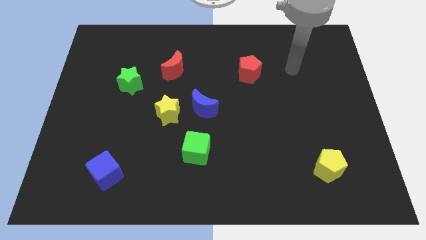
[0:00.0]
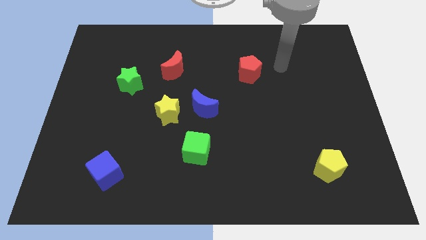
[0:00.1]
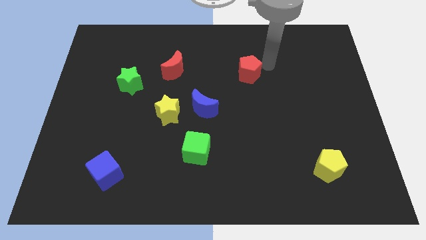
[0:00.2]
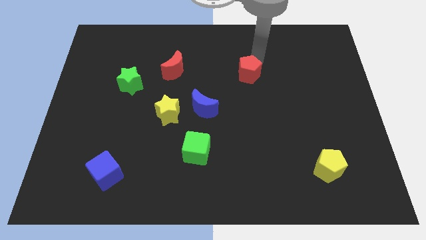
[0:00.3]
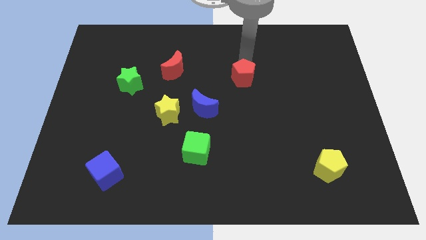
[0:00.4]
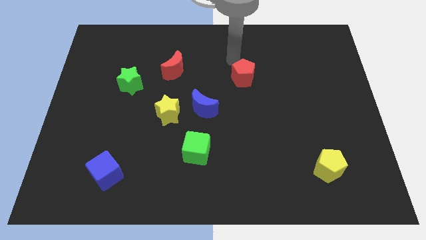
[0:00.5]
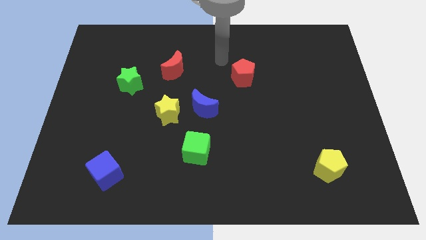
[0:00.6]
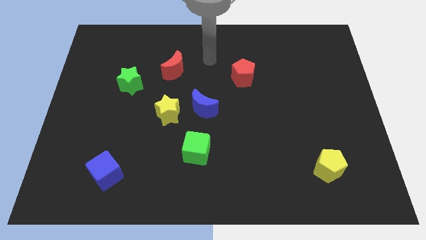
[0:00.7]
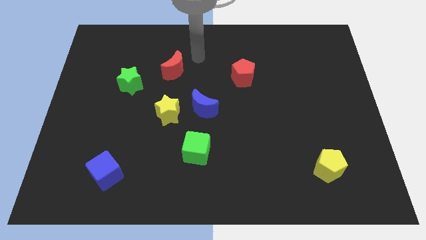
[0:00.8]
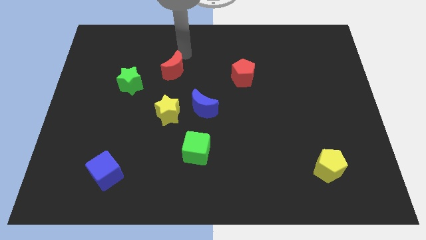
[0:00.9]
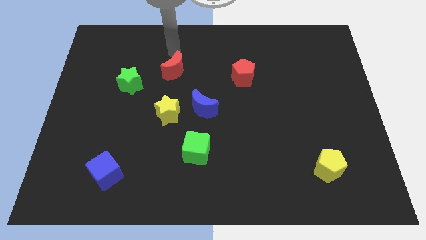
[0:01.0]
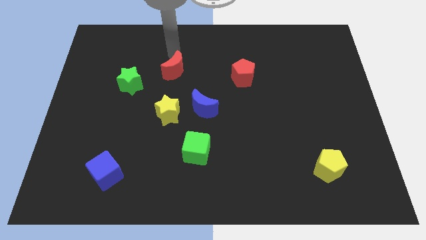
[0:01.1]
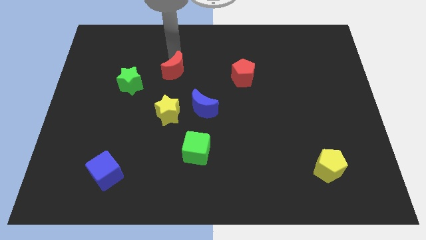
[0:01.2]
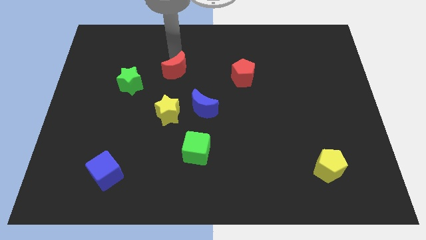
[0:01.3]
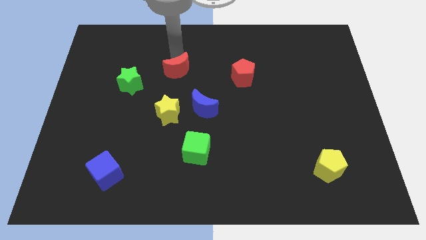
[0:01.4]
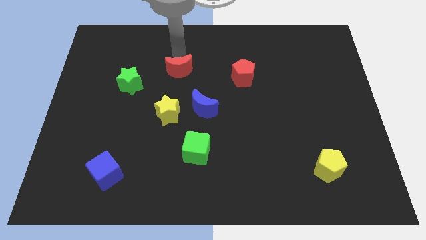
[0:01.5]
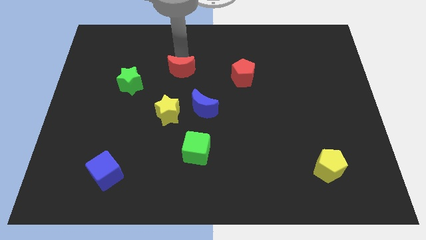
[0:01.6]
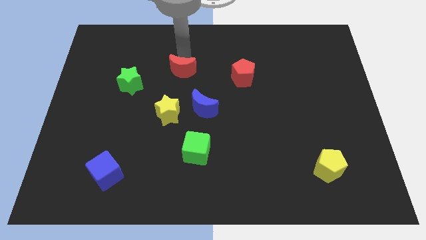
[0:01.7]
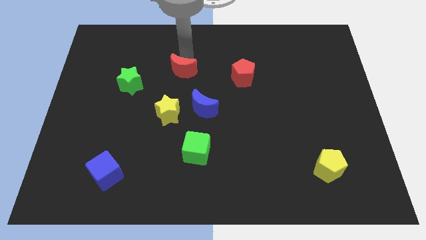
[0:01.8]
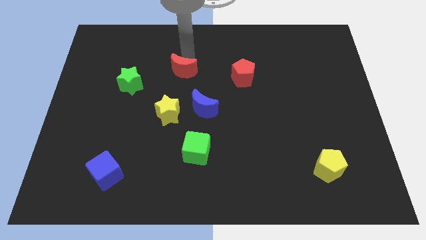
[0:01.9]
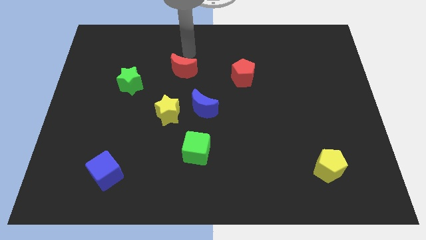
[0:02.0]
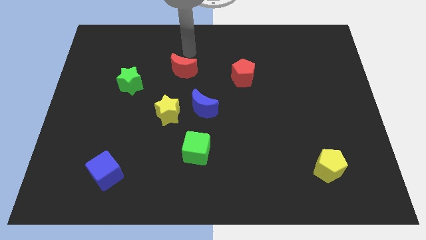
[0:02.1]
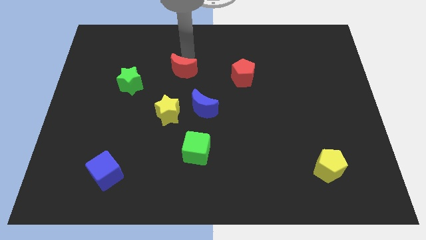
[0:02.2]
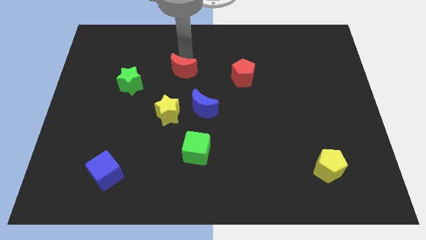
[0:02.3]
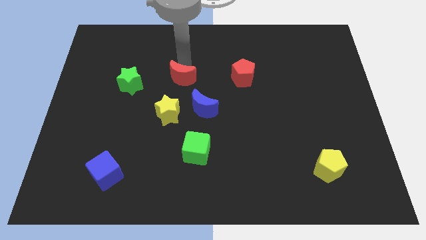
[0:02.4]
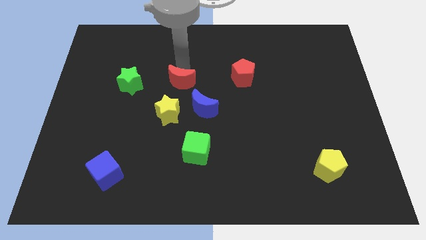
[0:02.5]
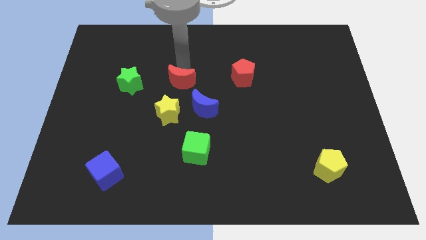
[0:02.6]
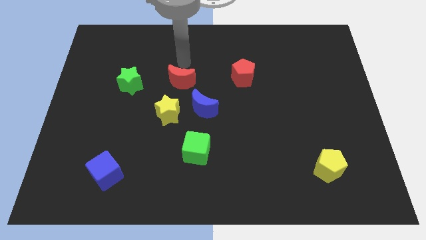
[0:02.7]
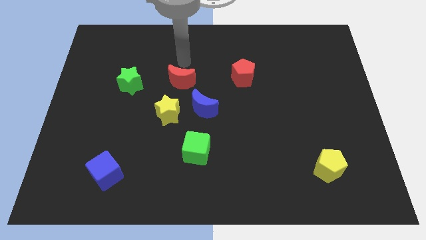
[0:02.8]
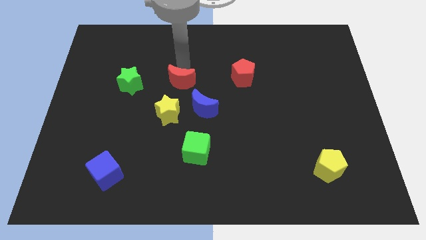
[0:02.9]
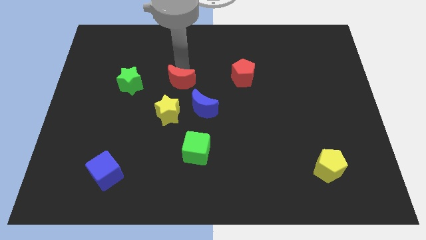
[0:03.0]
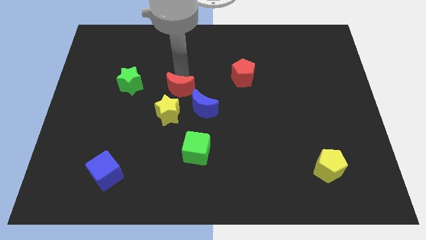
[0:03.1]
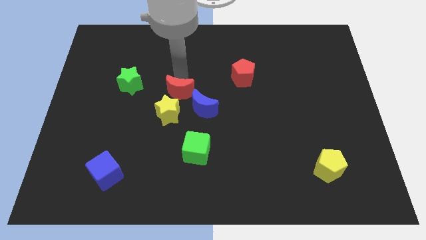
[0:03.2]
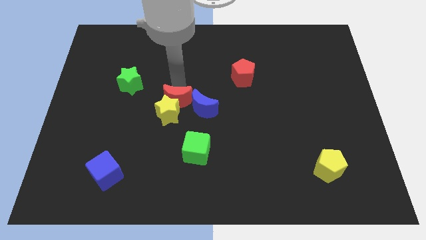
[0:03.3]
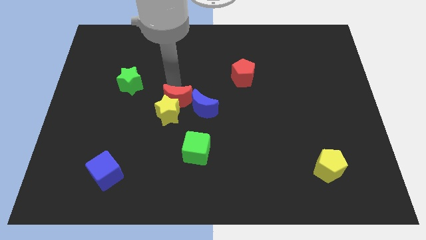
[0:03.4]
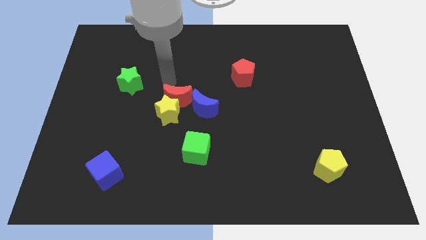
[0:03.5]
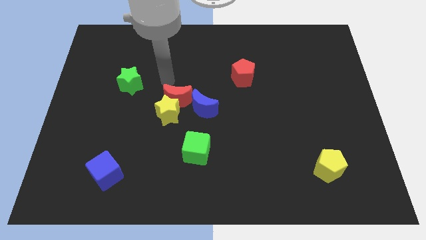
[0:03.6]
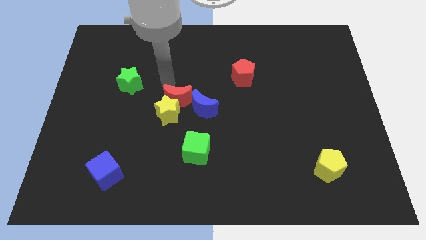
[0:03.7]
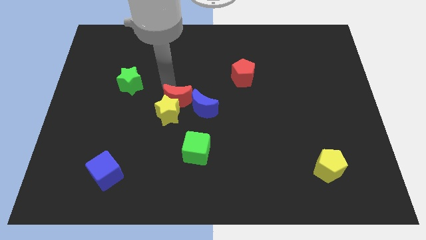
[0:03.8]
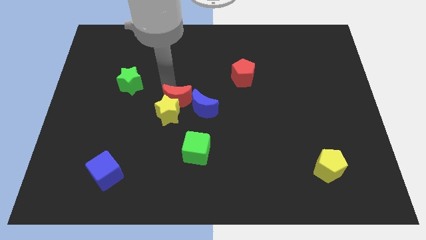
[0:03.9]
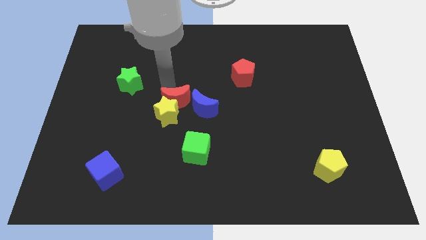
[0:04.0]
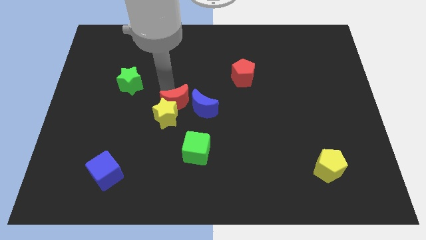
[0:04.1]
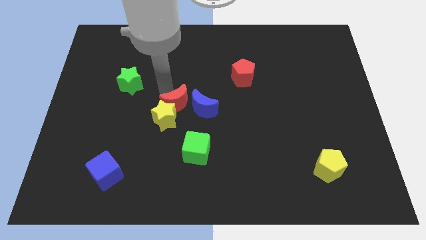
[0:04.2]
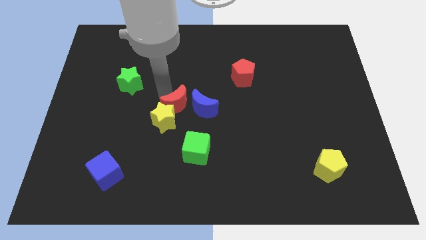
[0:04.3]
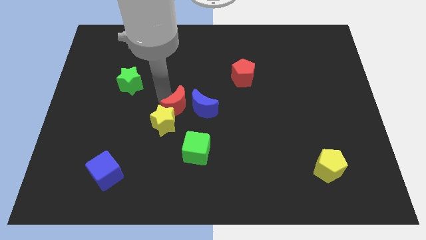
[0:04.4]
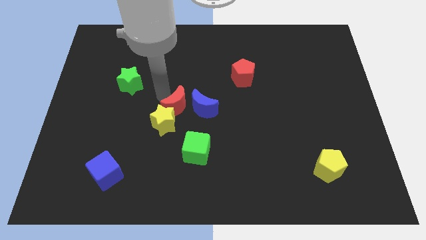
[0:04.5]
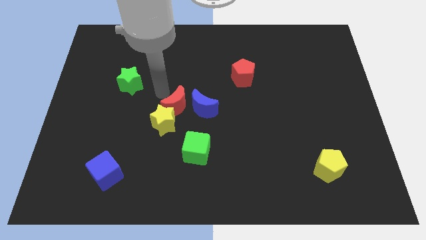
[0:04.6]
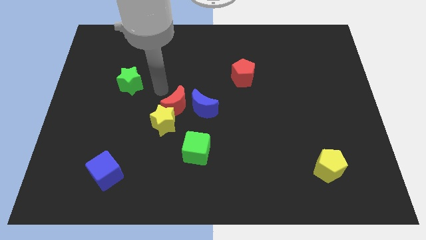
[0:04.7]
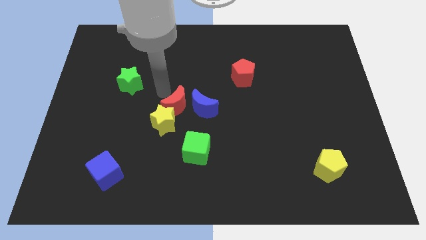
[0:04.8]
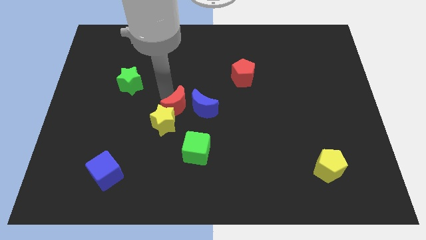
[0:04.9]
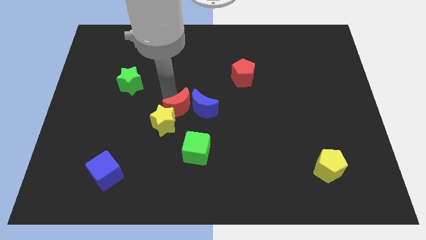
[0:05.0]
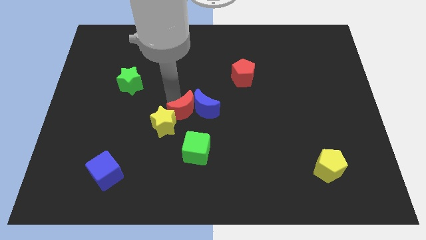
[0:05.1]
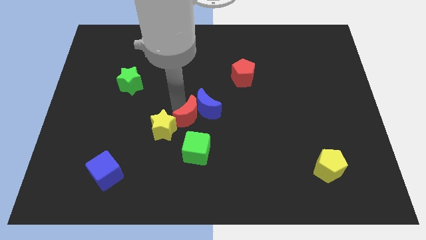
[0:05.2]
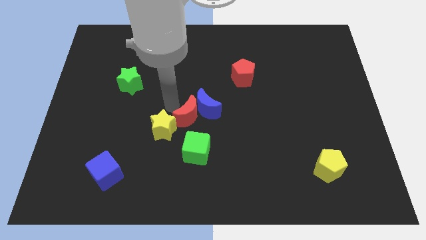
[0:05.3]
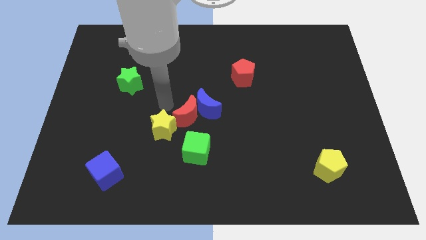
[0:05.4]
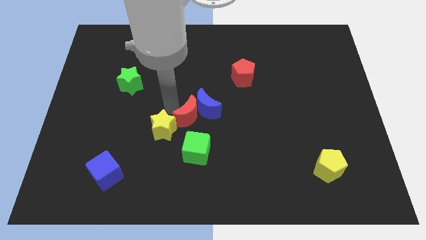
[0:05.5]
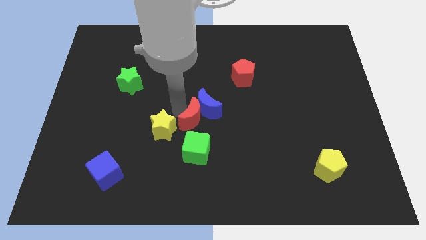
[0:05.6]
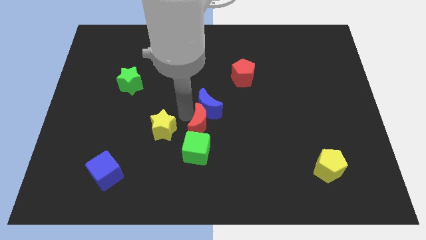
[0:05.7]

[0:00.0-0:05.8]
slide the red moon to the top right of the green cube

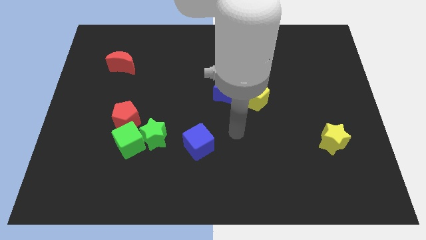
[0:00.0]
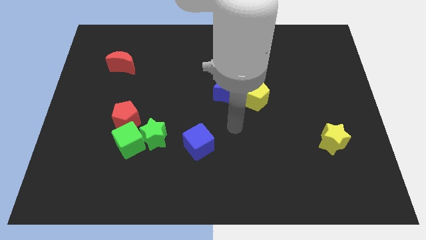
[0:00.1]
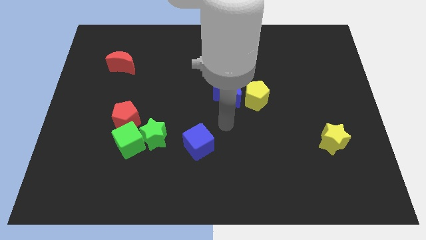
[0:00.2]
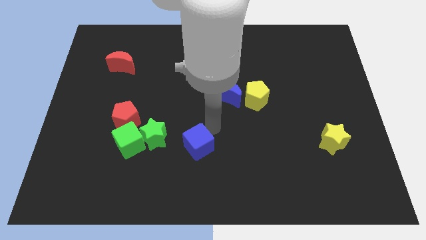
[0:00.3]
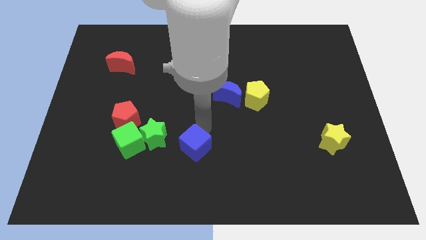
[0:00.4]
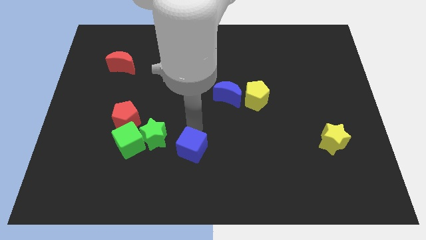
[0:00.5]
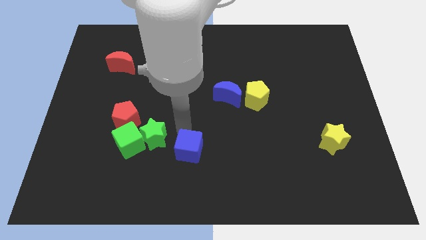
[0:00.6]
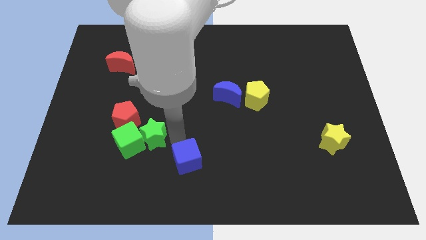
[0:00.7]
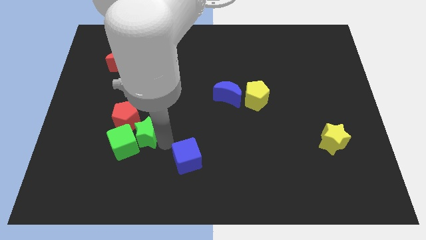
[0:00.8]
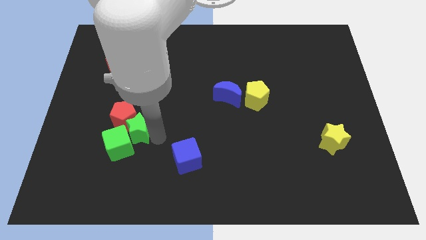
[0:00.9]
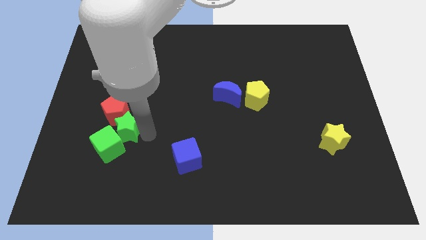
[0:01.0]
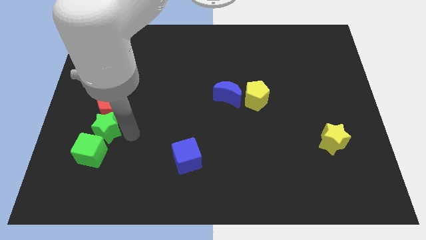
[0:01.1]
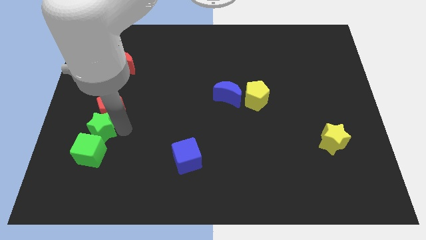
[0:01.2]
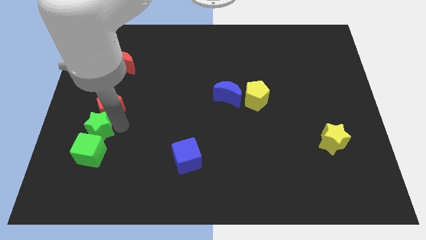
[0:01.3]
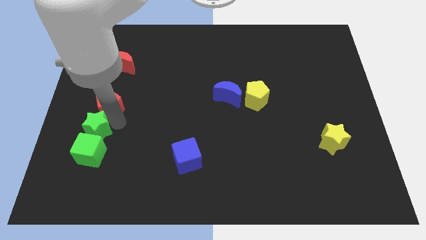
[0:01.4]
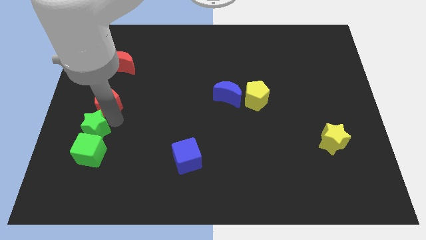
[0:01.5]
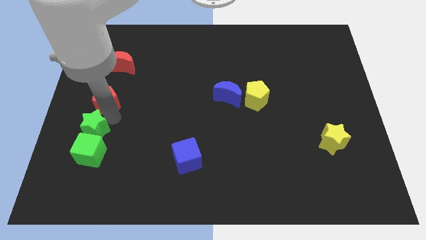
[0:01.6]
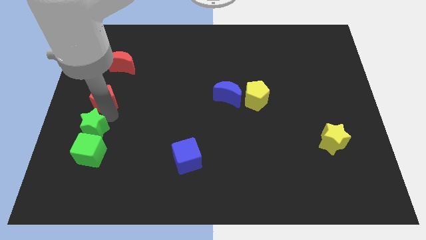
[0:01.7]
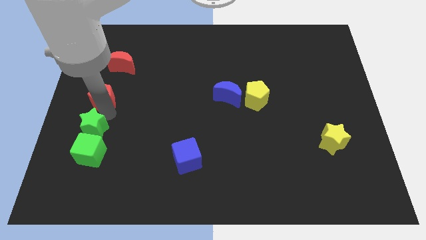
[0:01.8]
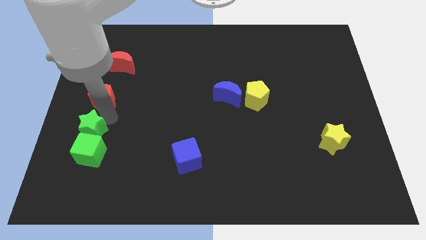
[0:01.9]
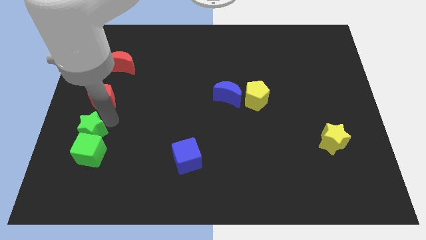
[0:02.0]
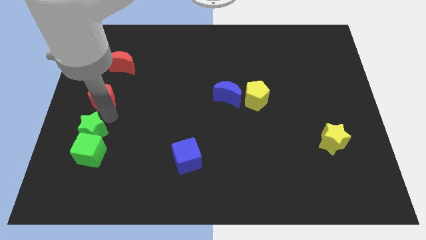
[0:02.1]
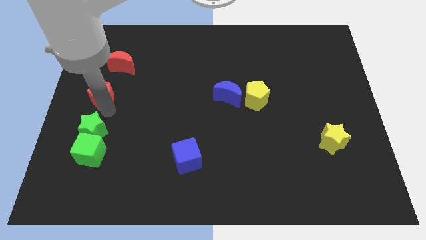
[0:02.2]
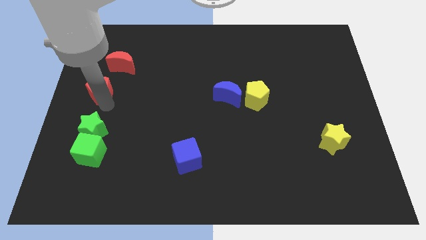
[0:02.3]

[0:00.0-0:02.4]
move the red pentagon diagonally down and to the left of the red moon

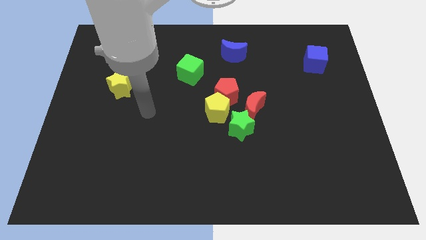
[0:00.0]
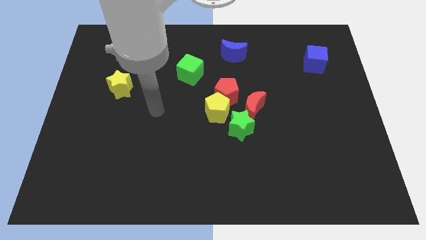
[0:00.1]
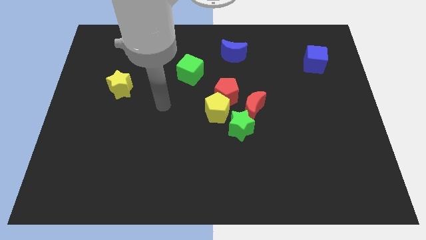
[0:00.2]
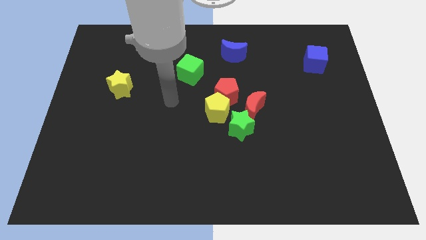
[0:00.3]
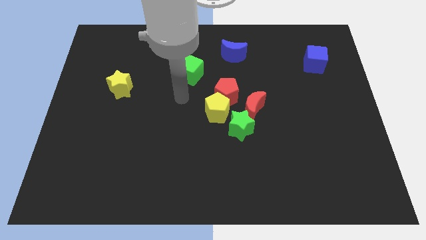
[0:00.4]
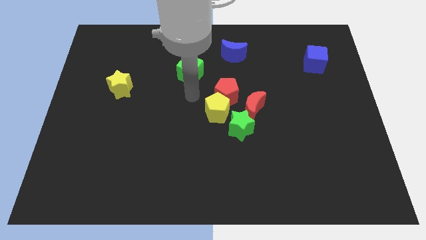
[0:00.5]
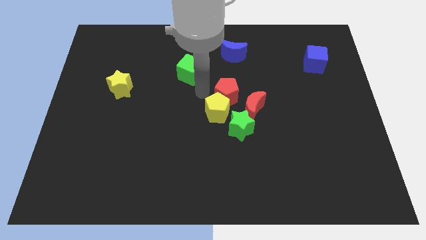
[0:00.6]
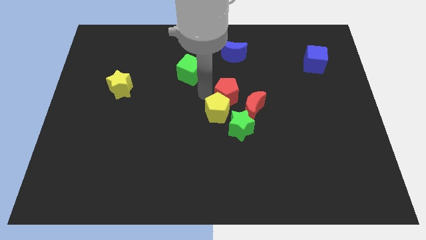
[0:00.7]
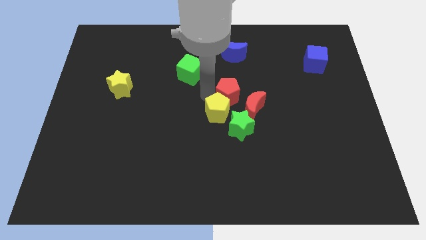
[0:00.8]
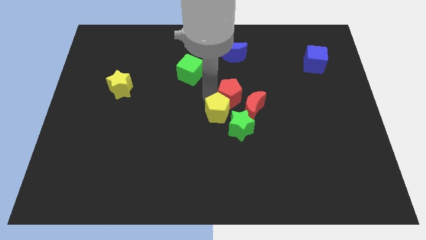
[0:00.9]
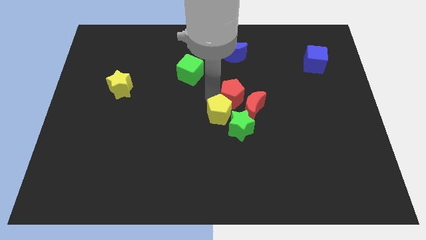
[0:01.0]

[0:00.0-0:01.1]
push the yellow pentagon to the bottom left of the red moon
